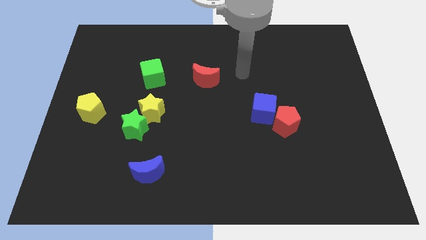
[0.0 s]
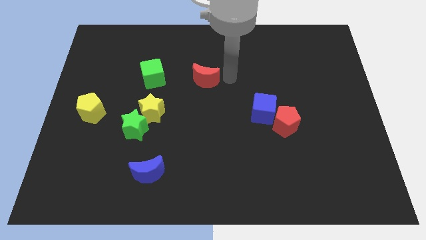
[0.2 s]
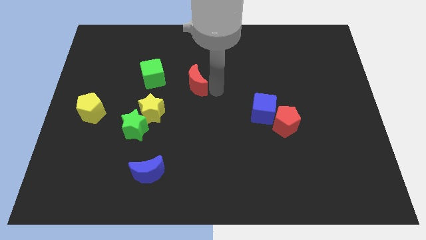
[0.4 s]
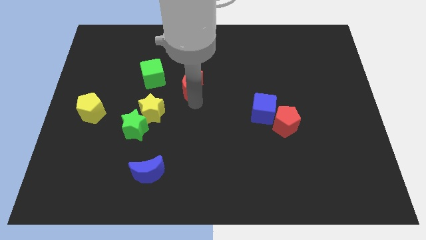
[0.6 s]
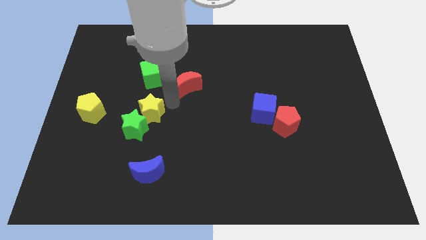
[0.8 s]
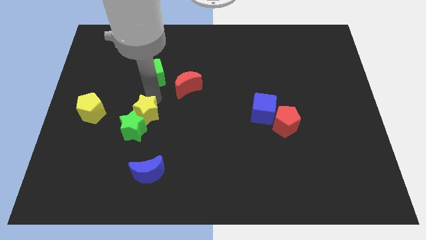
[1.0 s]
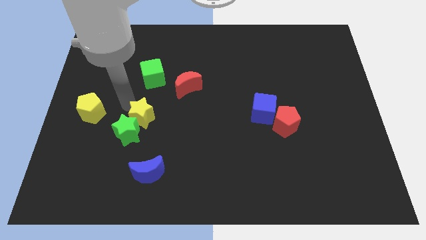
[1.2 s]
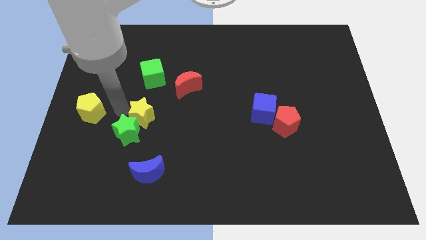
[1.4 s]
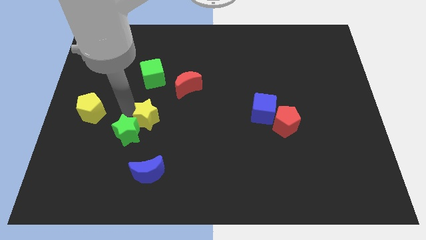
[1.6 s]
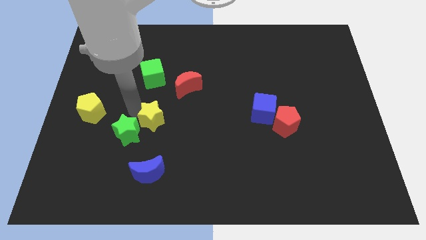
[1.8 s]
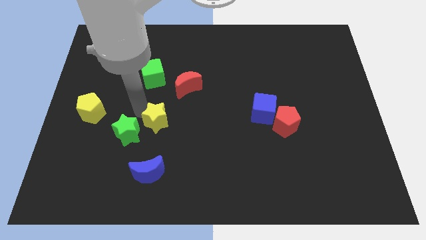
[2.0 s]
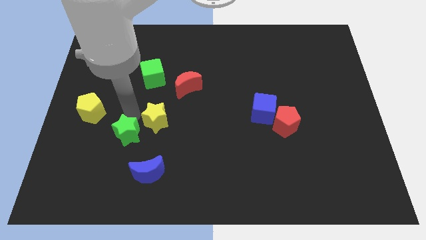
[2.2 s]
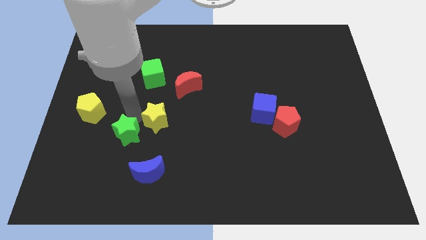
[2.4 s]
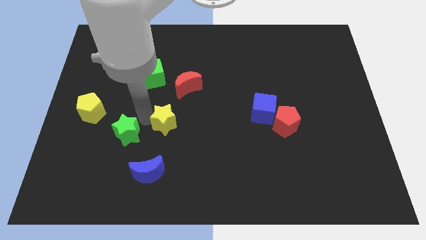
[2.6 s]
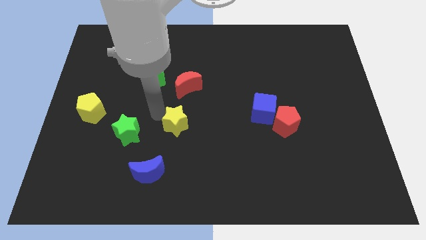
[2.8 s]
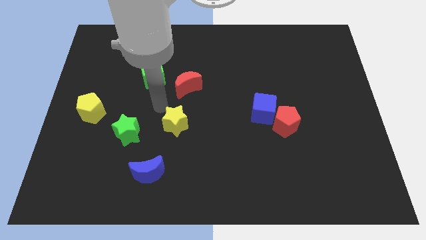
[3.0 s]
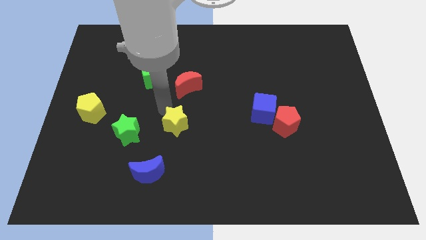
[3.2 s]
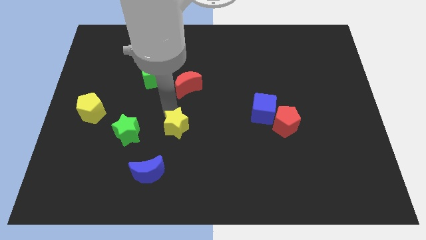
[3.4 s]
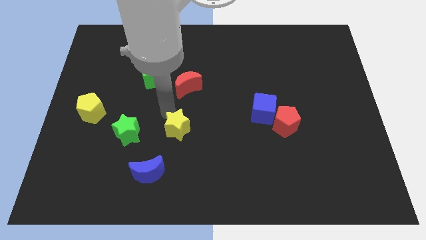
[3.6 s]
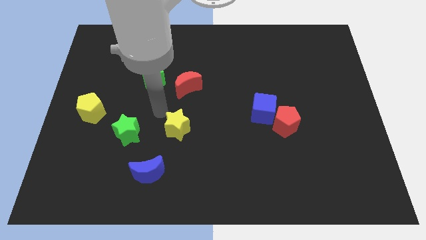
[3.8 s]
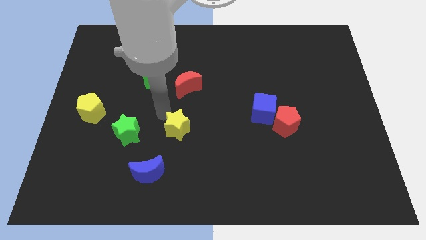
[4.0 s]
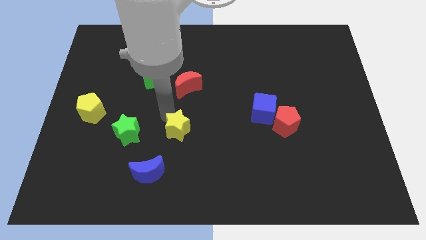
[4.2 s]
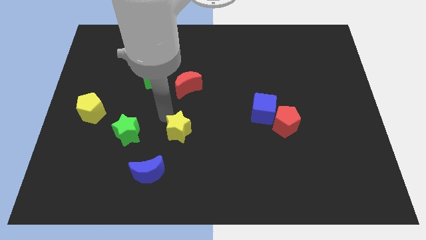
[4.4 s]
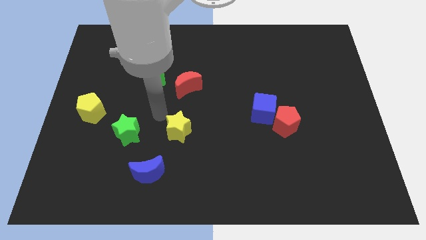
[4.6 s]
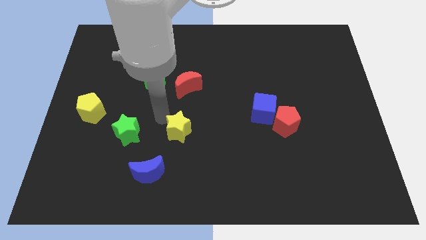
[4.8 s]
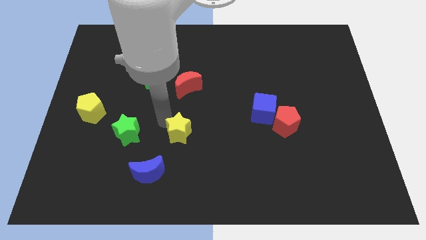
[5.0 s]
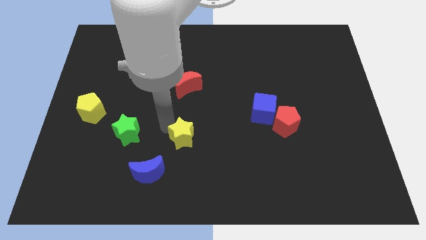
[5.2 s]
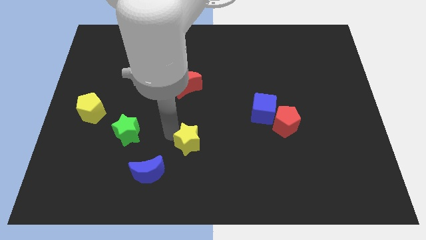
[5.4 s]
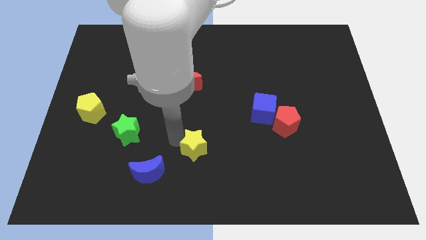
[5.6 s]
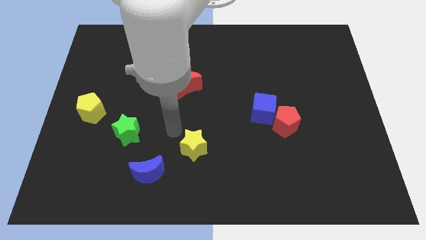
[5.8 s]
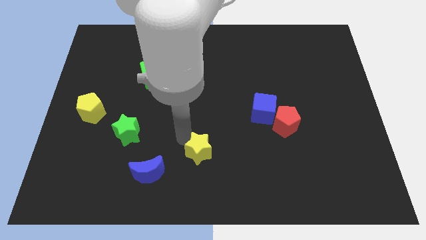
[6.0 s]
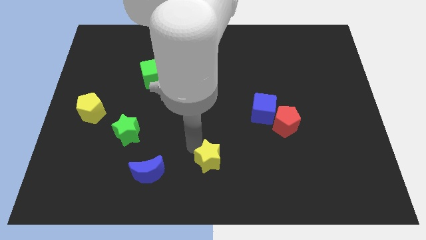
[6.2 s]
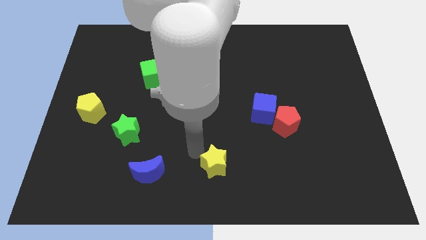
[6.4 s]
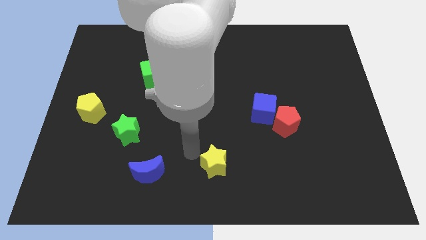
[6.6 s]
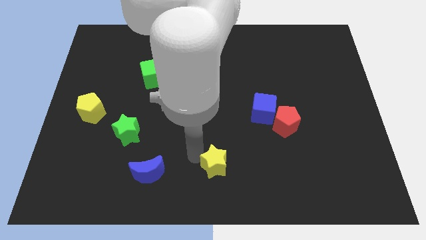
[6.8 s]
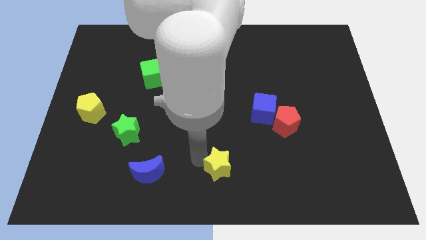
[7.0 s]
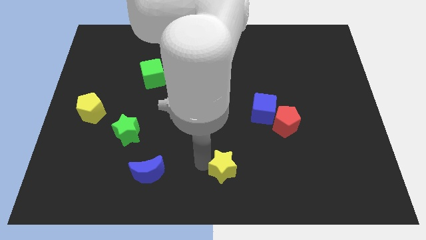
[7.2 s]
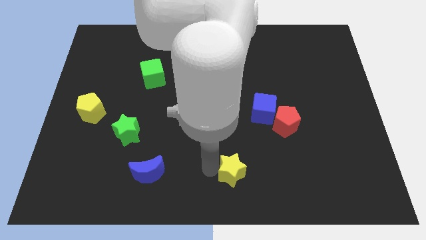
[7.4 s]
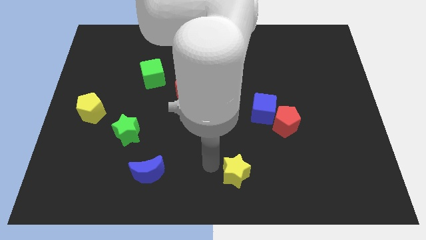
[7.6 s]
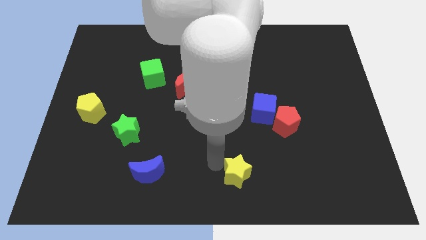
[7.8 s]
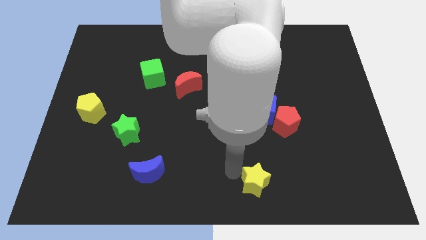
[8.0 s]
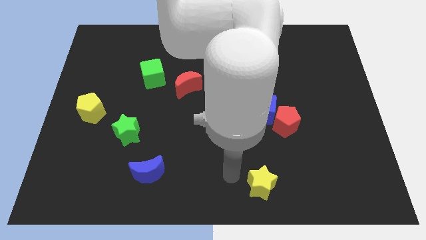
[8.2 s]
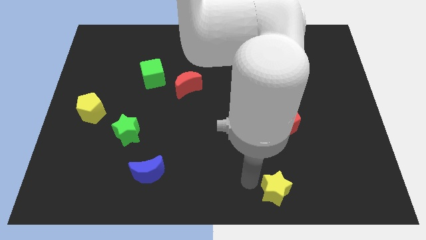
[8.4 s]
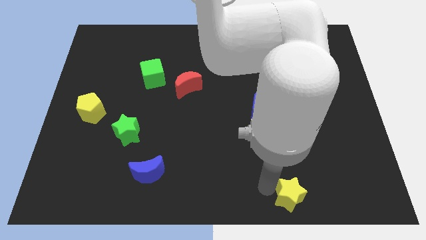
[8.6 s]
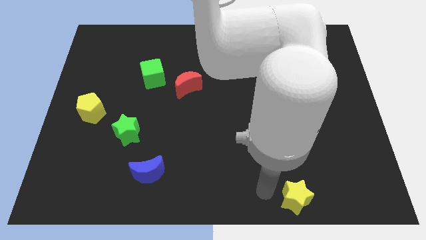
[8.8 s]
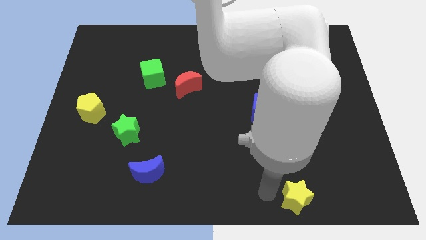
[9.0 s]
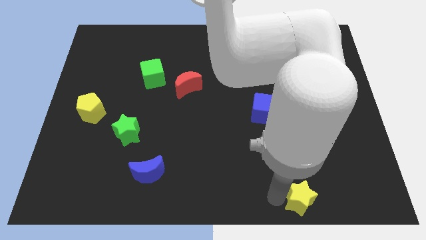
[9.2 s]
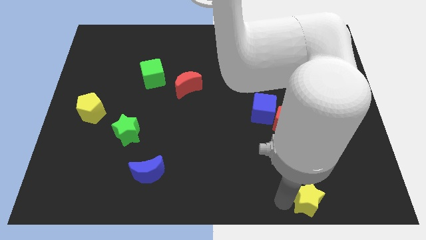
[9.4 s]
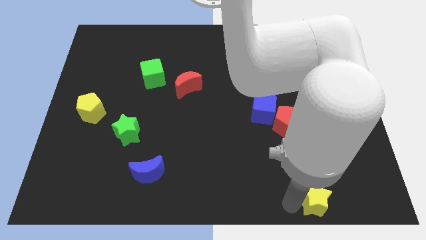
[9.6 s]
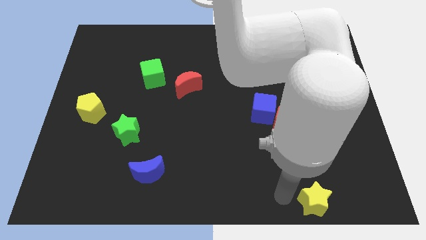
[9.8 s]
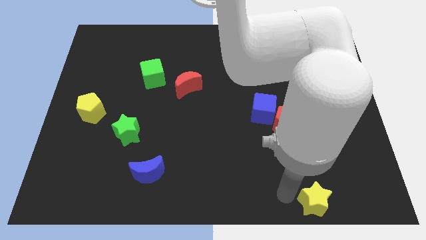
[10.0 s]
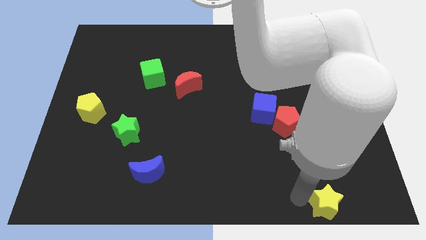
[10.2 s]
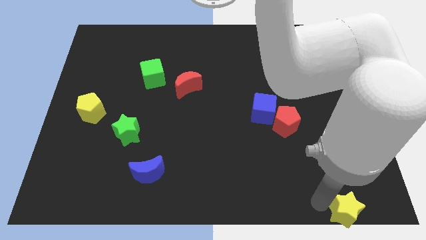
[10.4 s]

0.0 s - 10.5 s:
push the yellow star to the bottom right of the board

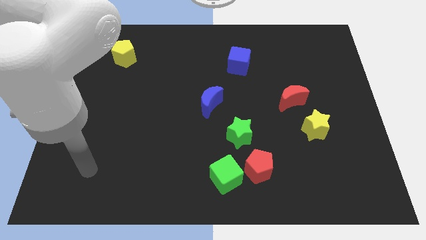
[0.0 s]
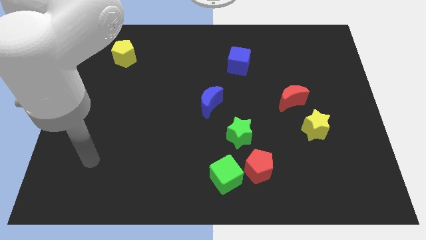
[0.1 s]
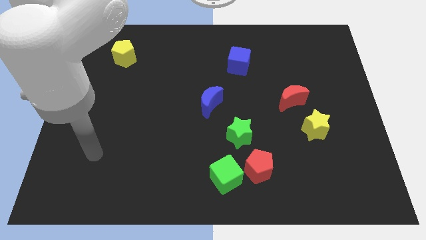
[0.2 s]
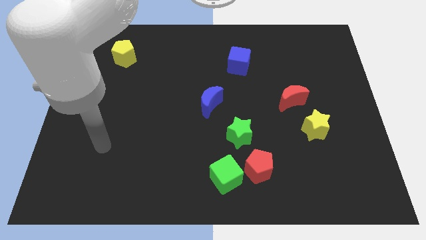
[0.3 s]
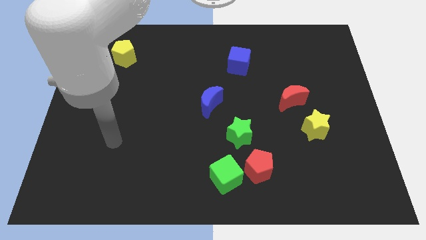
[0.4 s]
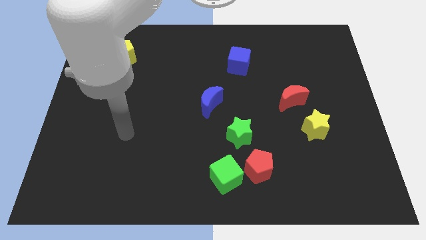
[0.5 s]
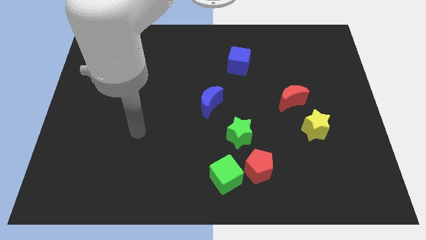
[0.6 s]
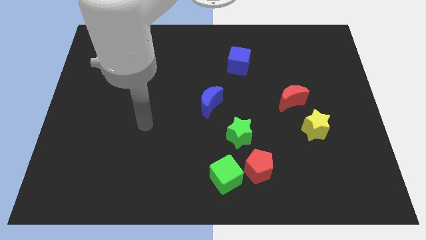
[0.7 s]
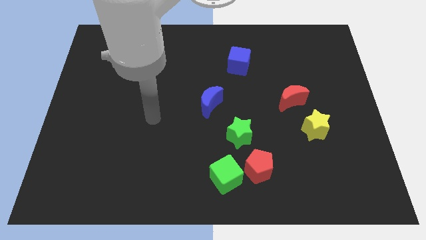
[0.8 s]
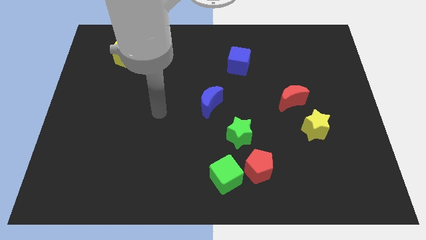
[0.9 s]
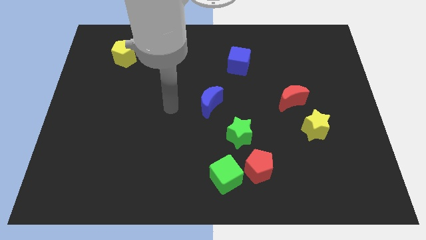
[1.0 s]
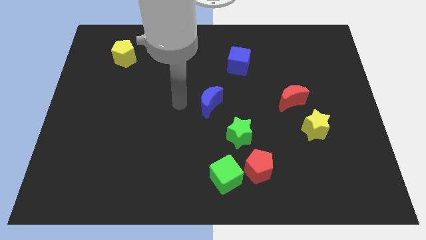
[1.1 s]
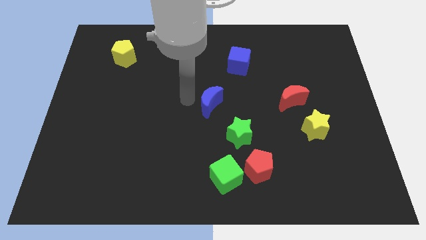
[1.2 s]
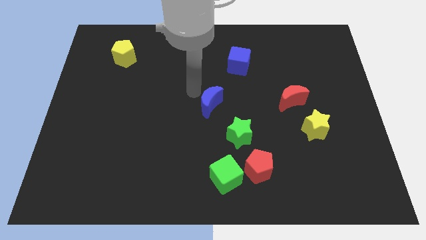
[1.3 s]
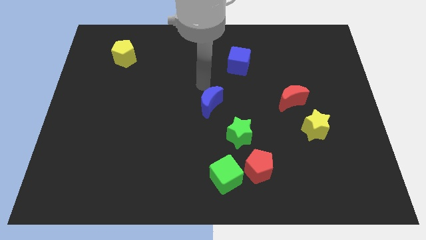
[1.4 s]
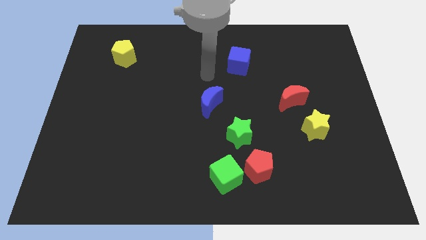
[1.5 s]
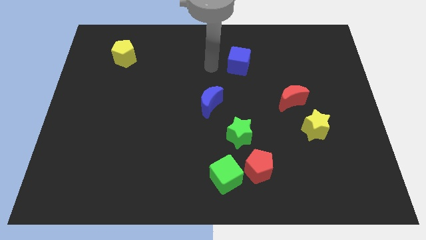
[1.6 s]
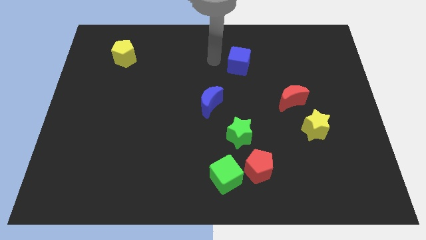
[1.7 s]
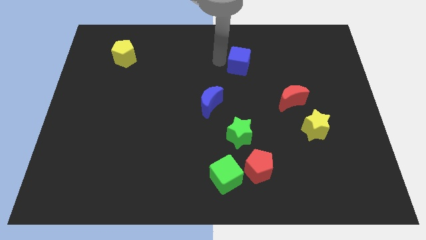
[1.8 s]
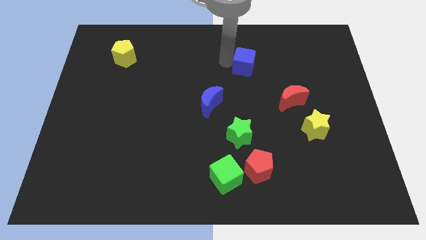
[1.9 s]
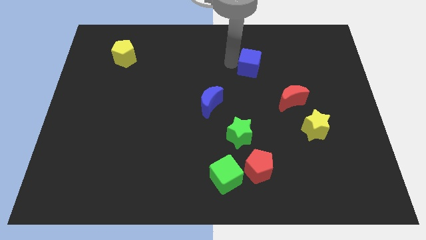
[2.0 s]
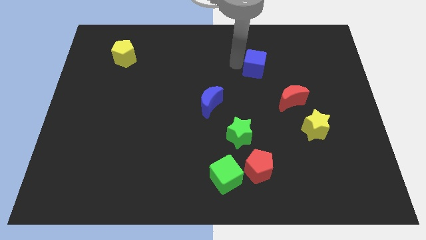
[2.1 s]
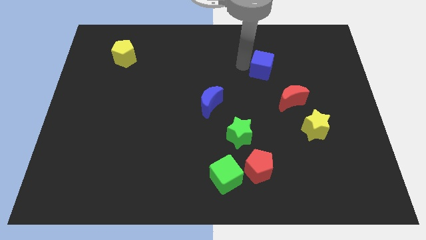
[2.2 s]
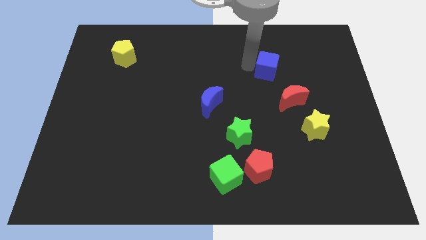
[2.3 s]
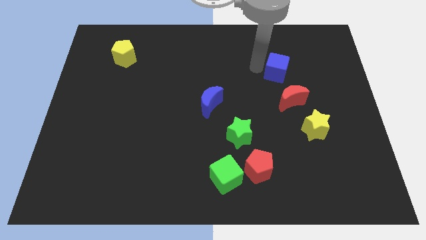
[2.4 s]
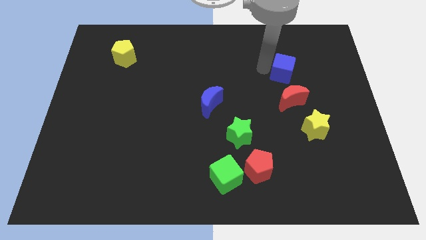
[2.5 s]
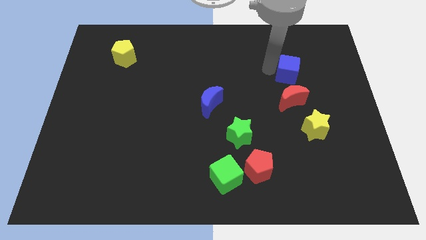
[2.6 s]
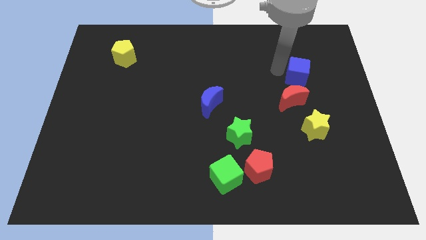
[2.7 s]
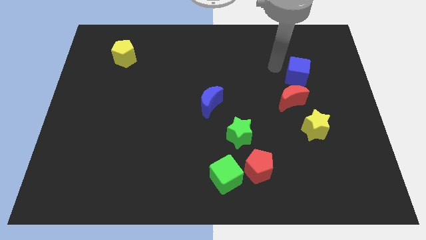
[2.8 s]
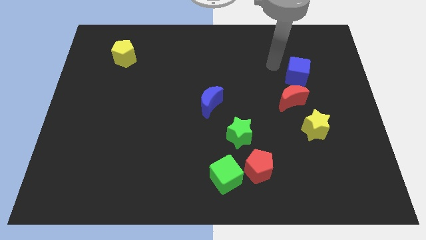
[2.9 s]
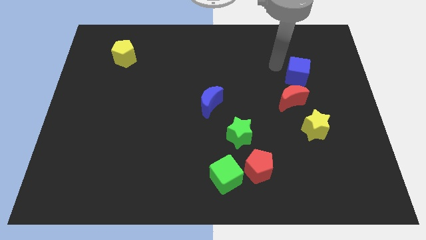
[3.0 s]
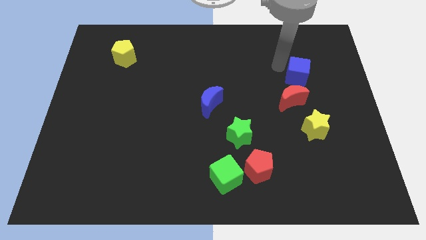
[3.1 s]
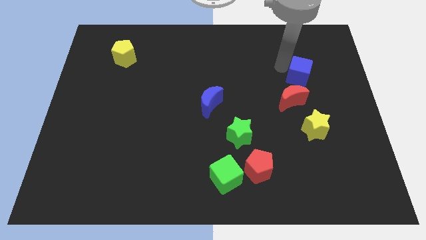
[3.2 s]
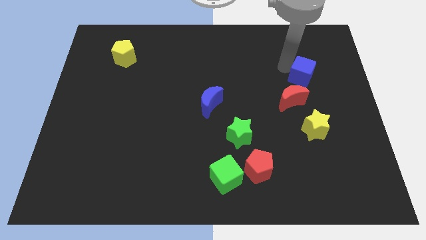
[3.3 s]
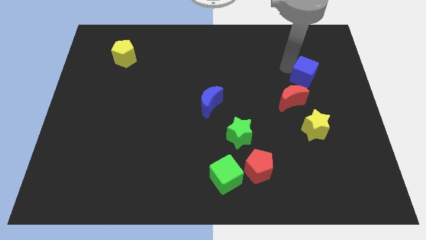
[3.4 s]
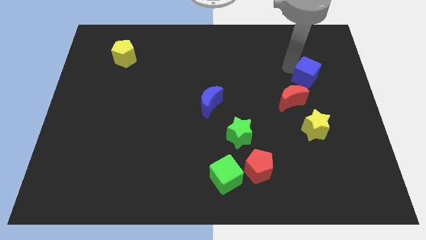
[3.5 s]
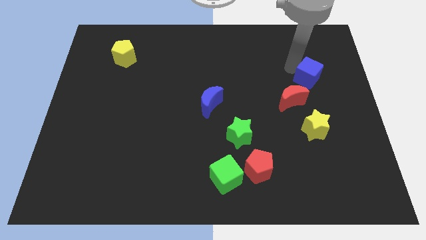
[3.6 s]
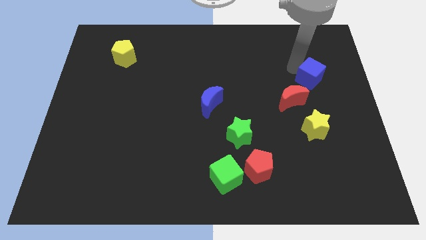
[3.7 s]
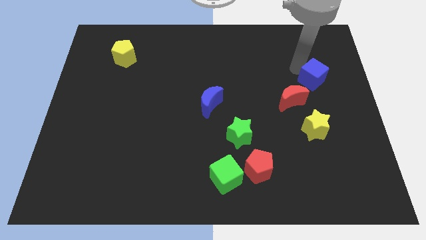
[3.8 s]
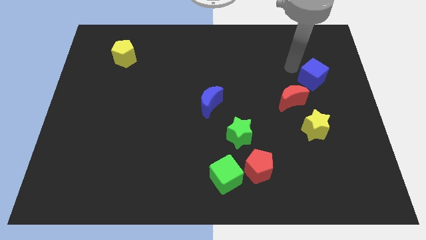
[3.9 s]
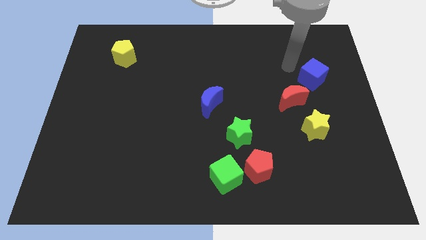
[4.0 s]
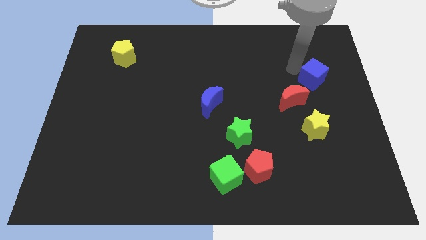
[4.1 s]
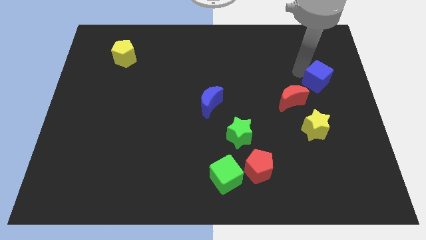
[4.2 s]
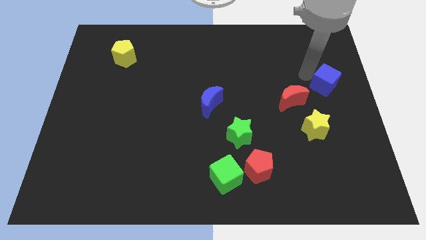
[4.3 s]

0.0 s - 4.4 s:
put the blue cube to the right side
